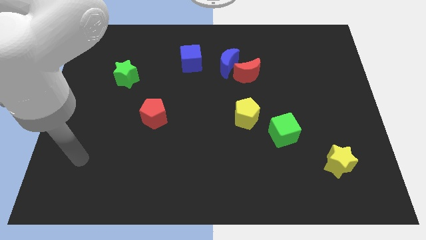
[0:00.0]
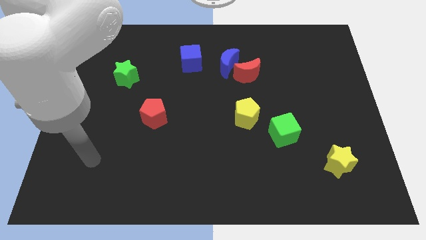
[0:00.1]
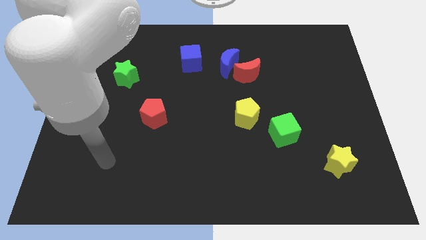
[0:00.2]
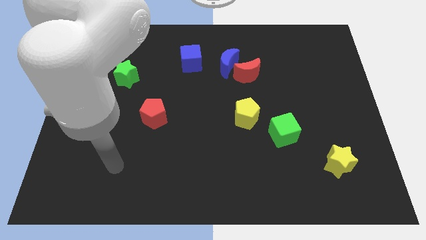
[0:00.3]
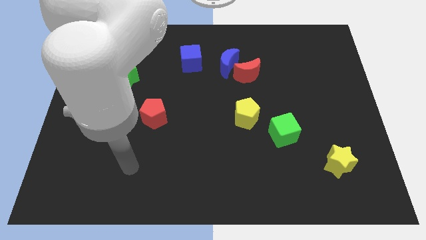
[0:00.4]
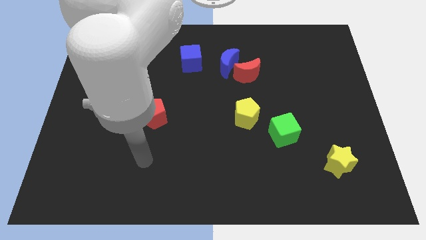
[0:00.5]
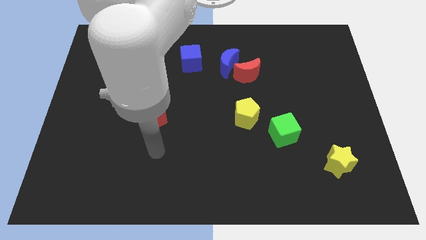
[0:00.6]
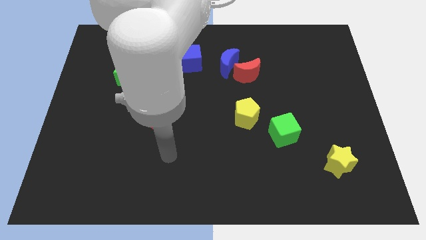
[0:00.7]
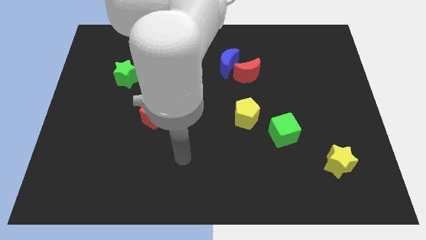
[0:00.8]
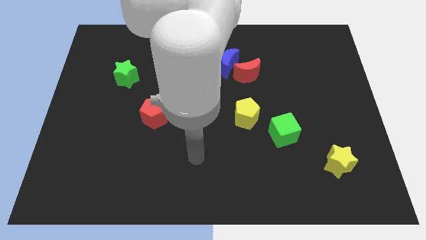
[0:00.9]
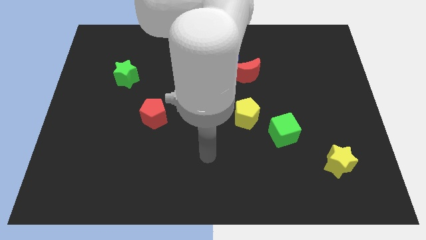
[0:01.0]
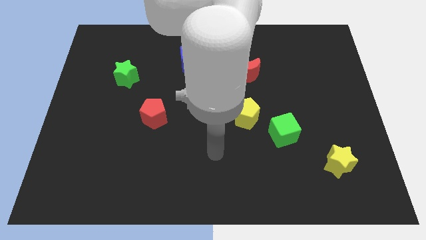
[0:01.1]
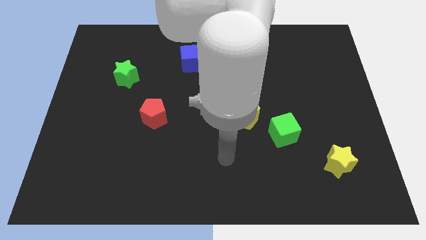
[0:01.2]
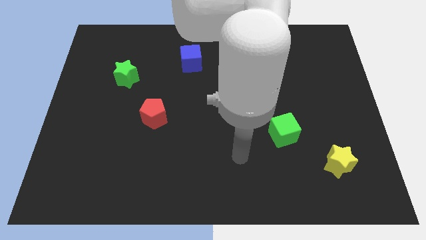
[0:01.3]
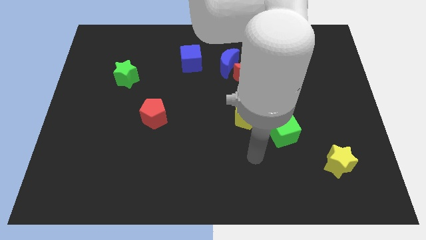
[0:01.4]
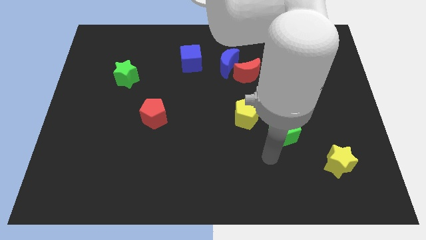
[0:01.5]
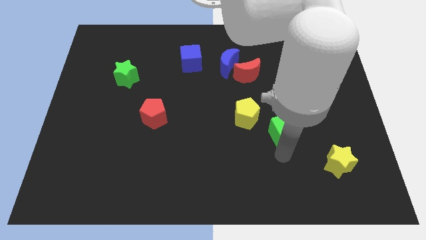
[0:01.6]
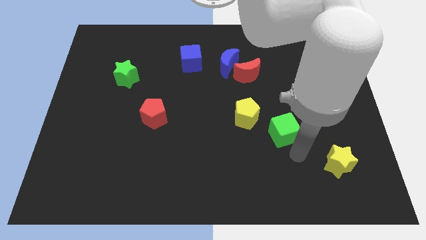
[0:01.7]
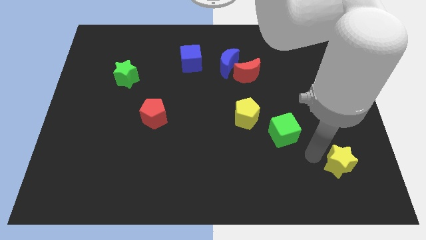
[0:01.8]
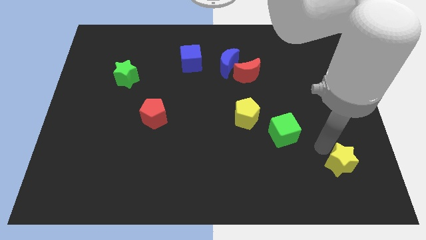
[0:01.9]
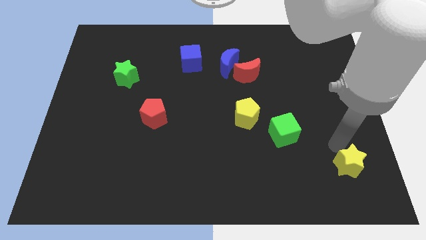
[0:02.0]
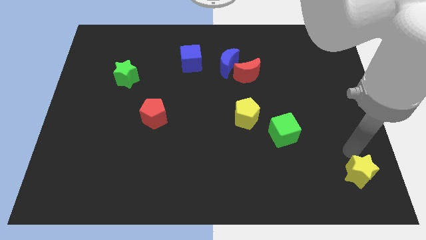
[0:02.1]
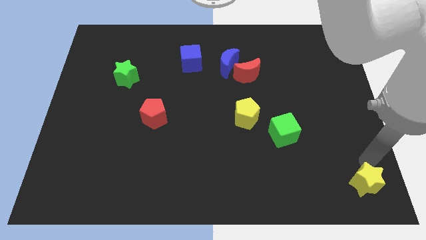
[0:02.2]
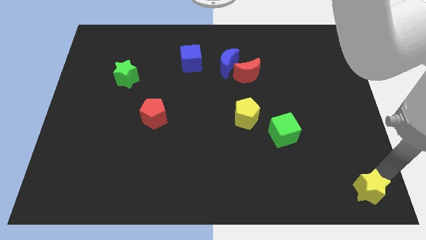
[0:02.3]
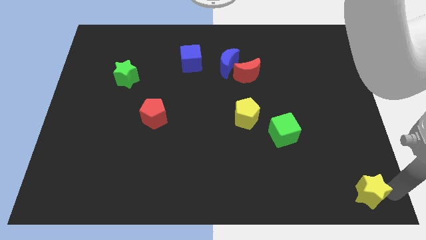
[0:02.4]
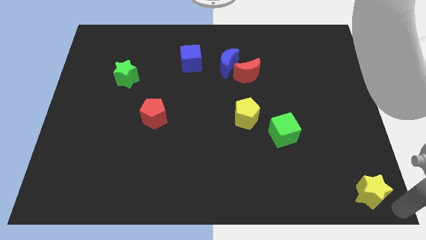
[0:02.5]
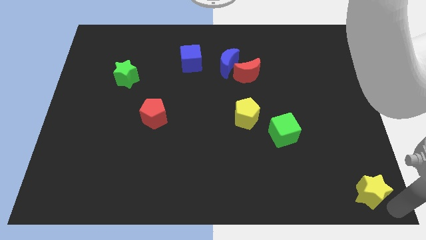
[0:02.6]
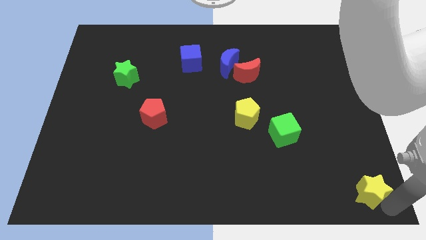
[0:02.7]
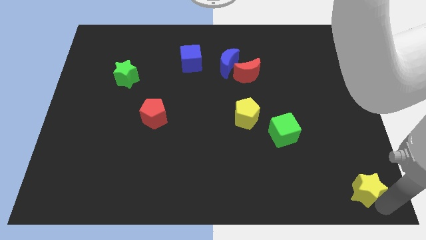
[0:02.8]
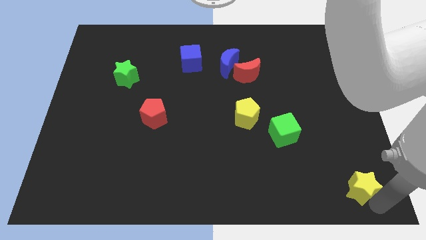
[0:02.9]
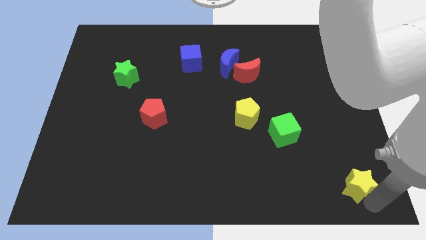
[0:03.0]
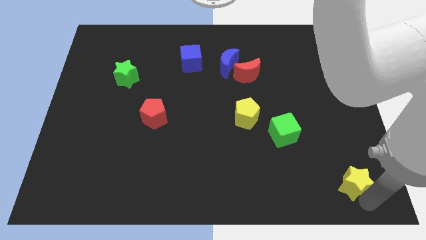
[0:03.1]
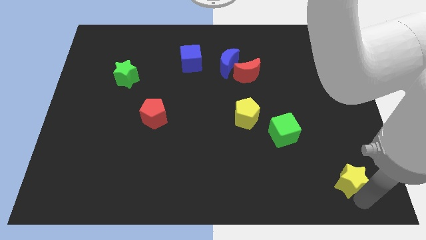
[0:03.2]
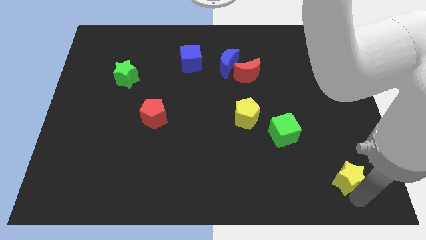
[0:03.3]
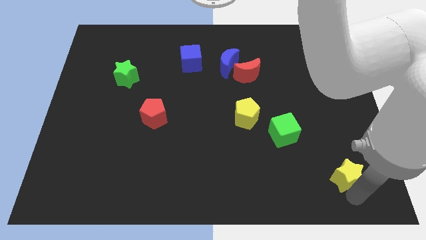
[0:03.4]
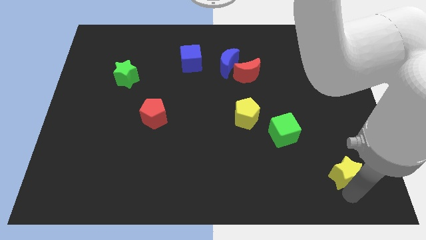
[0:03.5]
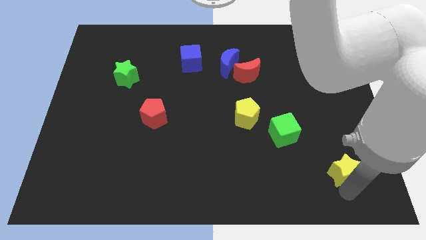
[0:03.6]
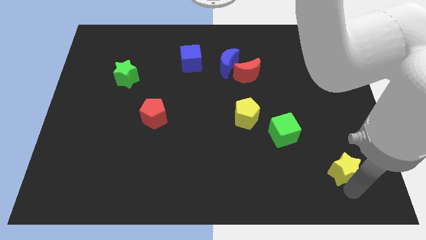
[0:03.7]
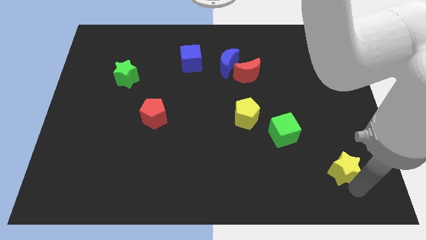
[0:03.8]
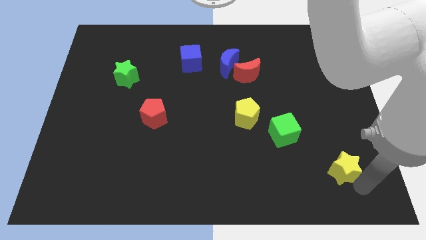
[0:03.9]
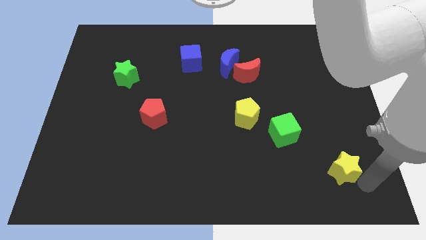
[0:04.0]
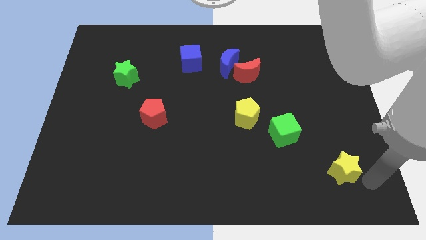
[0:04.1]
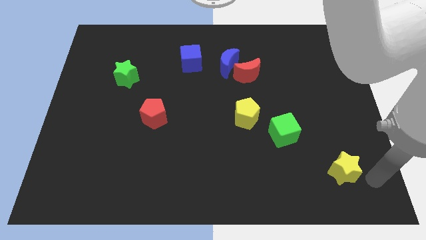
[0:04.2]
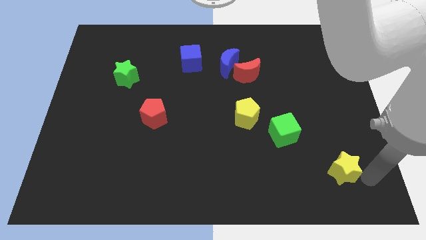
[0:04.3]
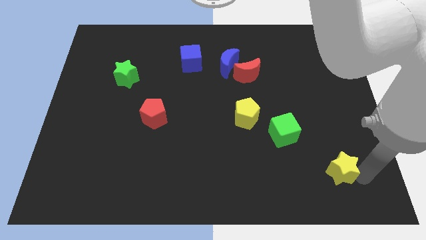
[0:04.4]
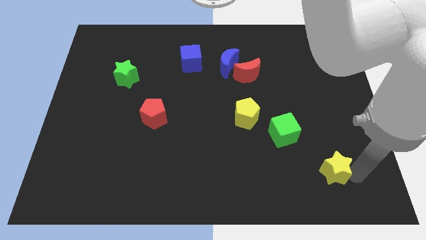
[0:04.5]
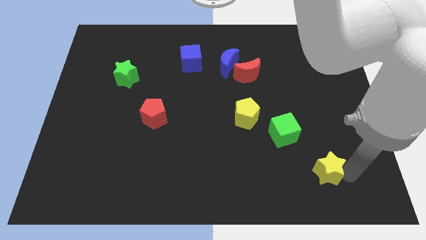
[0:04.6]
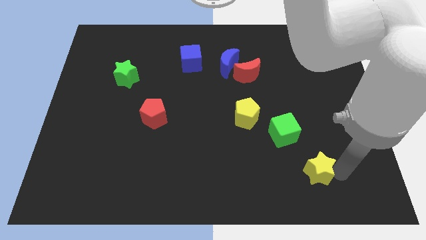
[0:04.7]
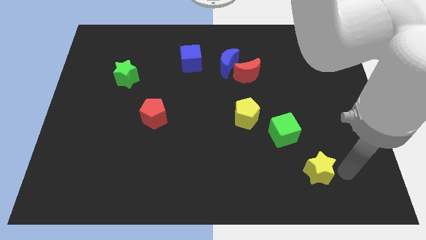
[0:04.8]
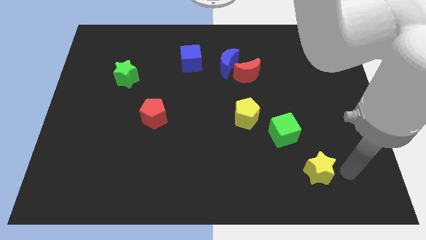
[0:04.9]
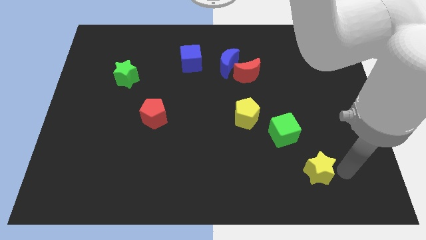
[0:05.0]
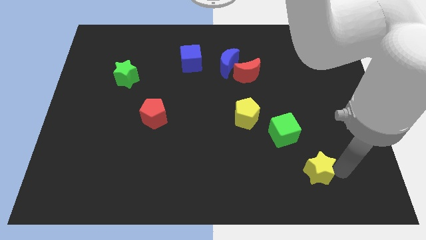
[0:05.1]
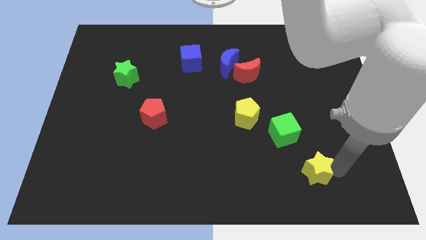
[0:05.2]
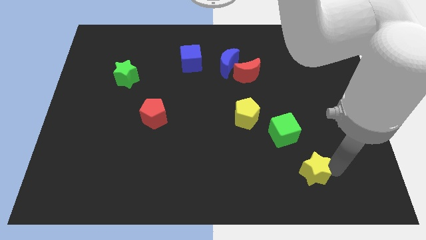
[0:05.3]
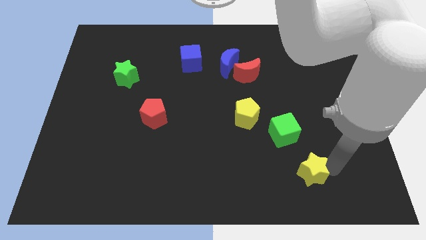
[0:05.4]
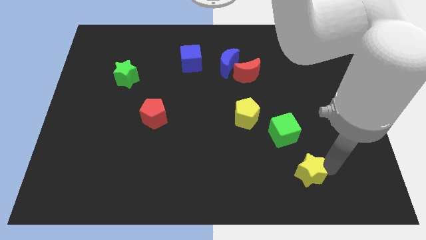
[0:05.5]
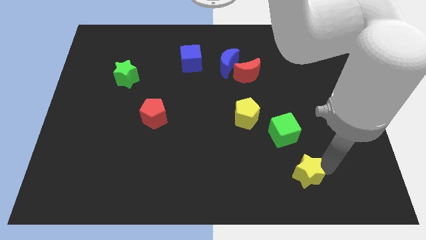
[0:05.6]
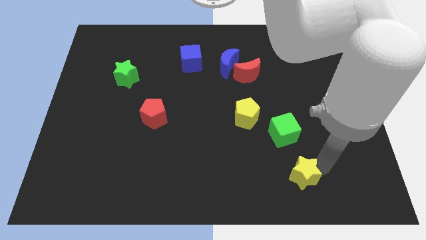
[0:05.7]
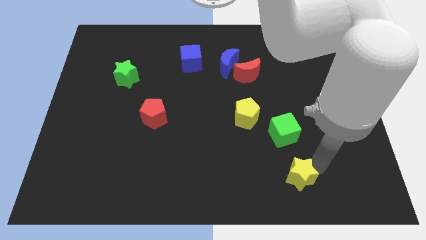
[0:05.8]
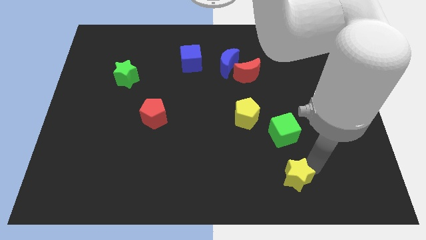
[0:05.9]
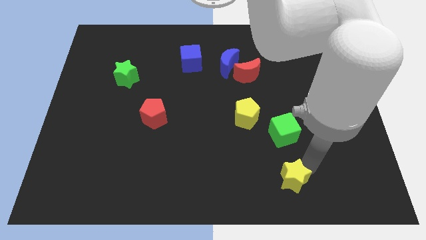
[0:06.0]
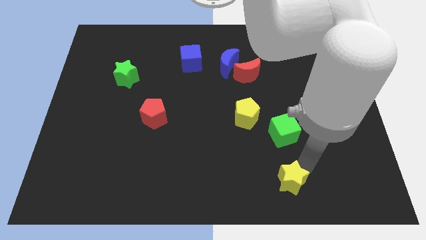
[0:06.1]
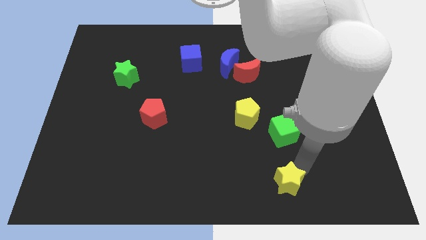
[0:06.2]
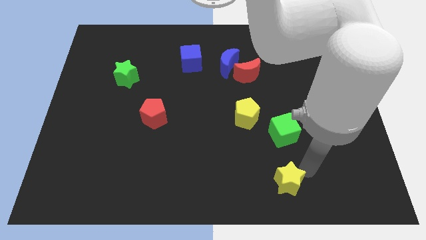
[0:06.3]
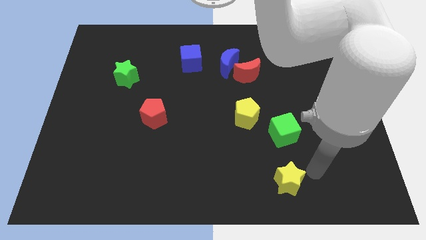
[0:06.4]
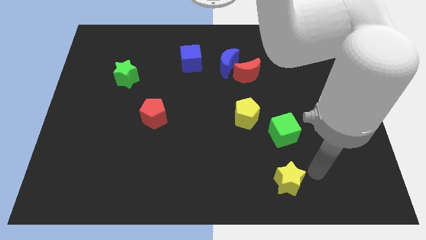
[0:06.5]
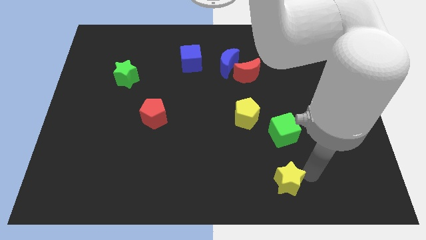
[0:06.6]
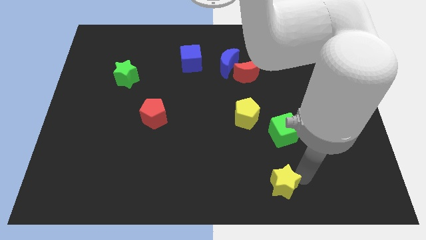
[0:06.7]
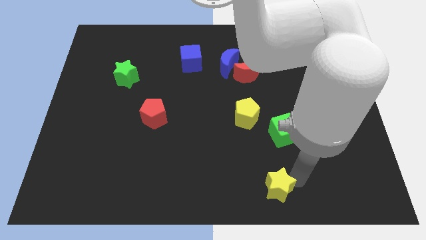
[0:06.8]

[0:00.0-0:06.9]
slide the yellow star to the bottom side
